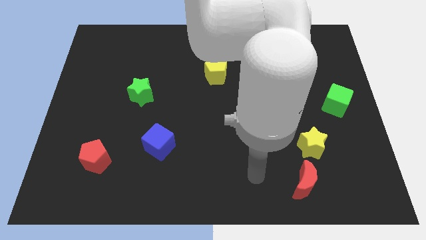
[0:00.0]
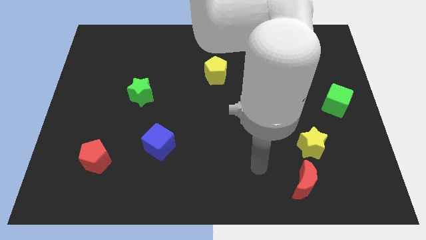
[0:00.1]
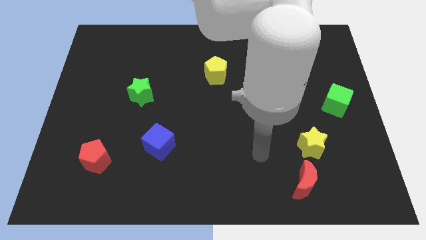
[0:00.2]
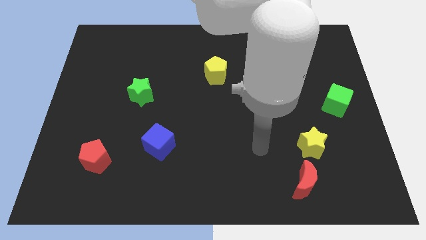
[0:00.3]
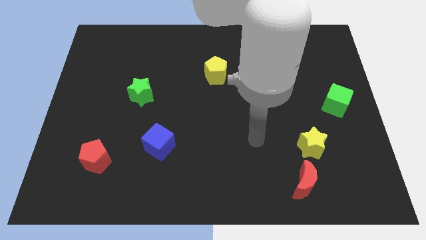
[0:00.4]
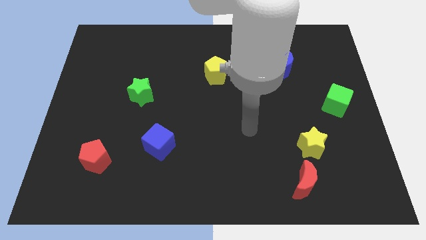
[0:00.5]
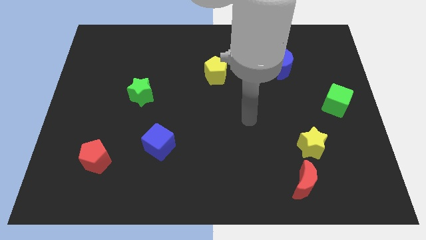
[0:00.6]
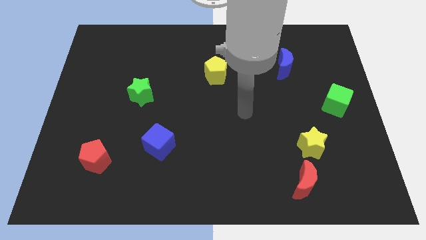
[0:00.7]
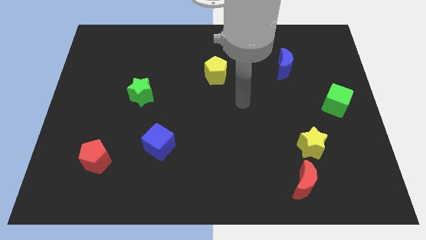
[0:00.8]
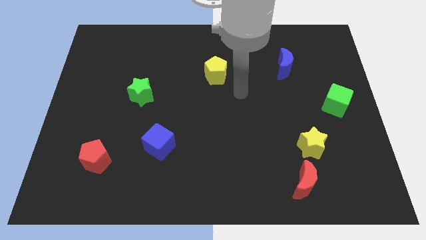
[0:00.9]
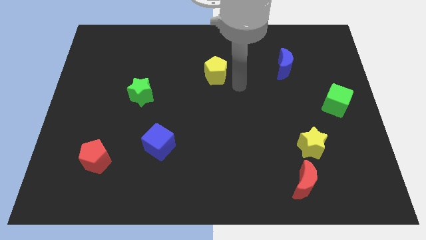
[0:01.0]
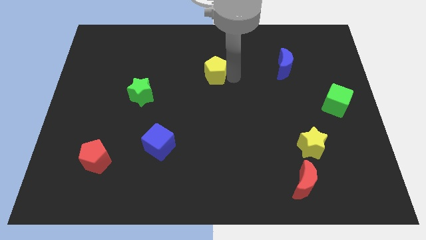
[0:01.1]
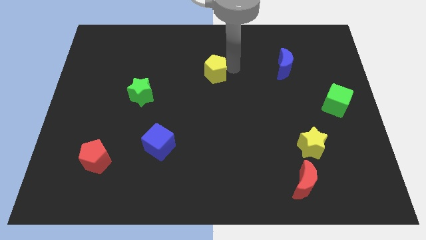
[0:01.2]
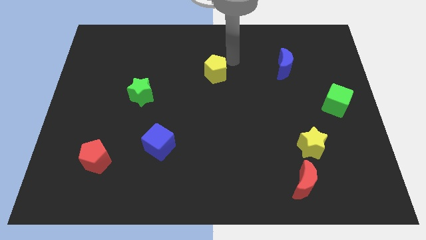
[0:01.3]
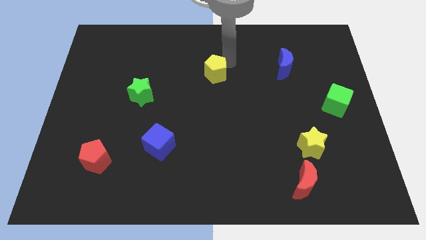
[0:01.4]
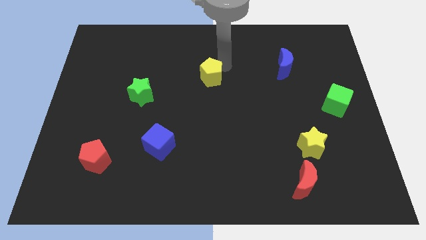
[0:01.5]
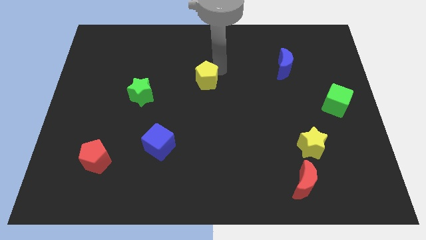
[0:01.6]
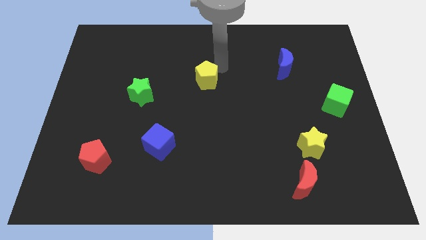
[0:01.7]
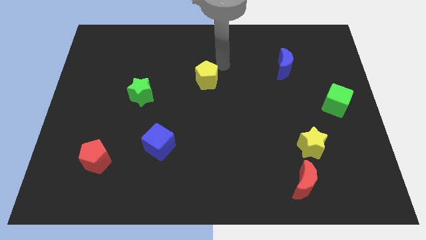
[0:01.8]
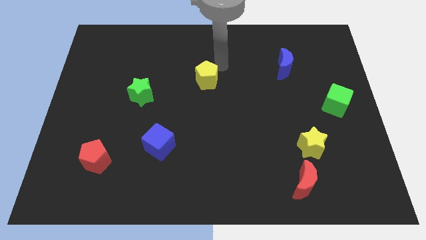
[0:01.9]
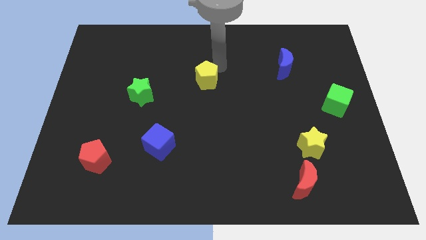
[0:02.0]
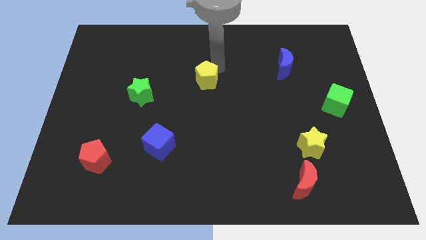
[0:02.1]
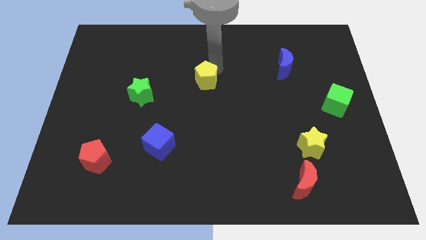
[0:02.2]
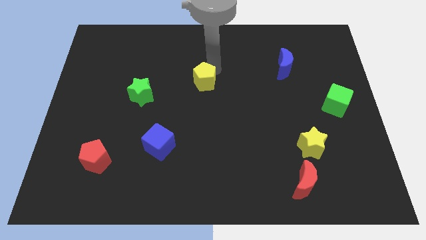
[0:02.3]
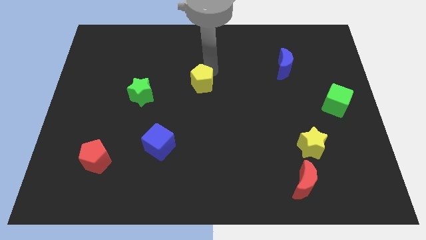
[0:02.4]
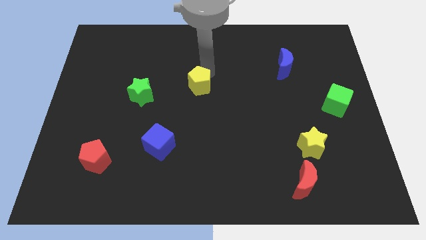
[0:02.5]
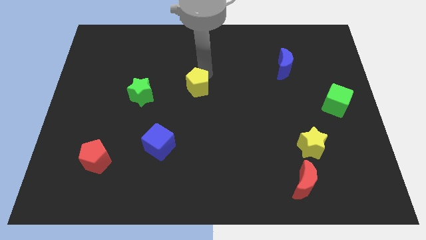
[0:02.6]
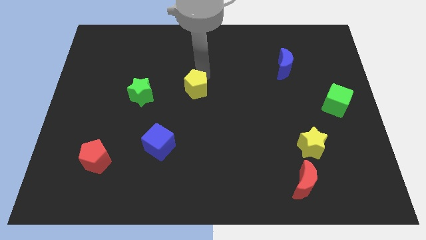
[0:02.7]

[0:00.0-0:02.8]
push the yellow pentagon a little downwards and left

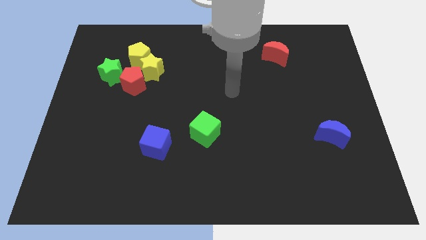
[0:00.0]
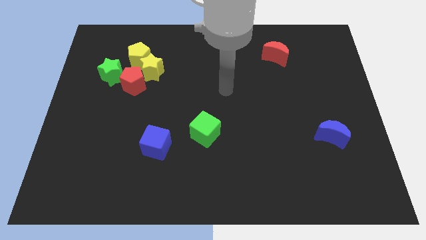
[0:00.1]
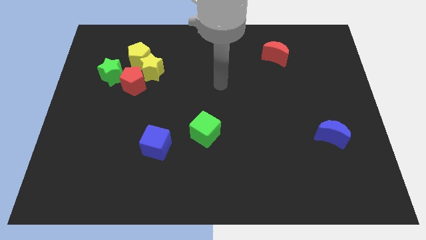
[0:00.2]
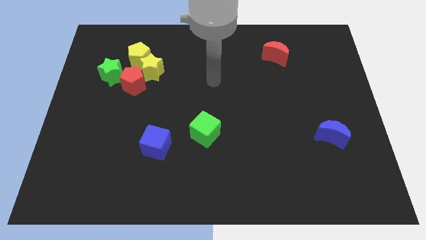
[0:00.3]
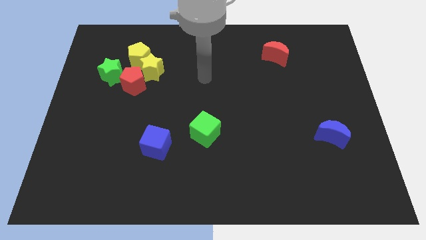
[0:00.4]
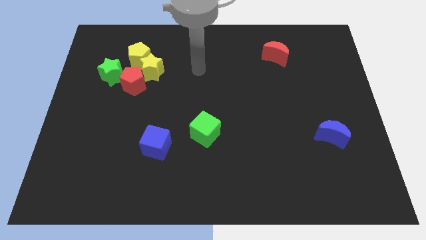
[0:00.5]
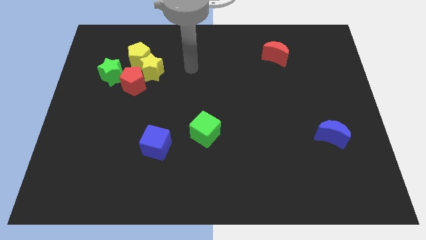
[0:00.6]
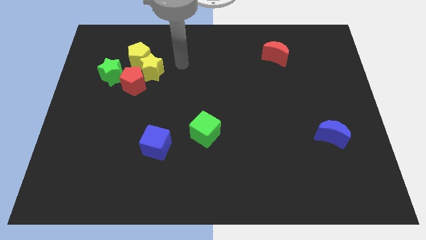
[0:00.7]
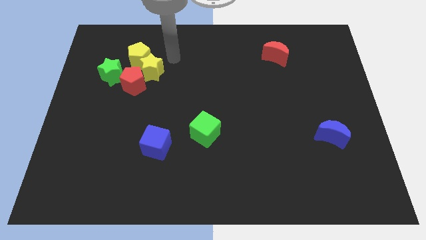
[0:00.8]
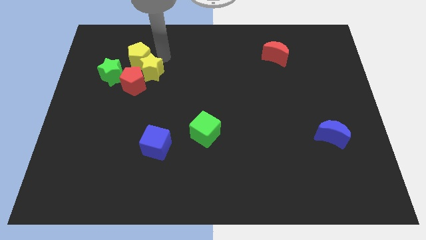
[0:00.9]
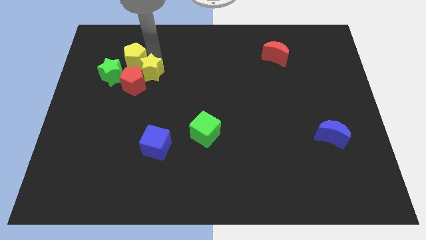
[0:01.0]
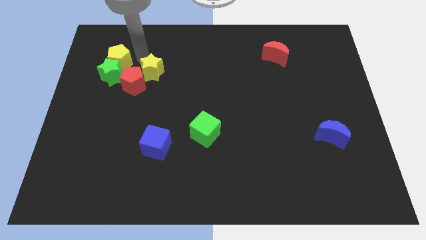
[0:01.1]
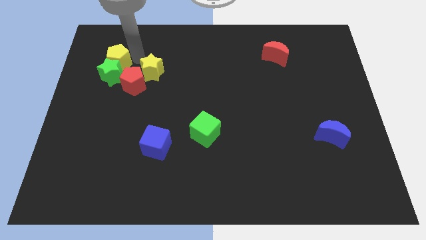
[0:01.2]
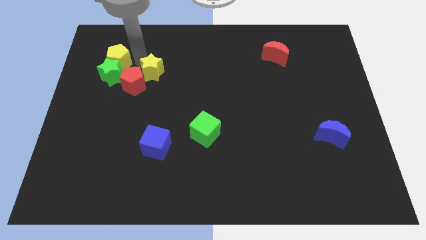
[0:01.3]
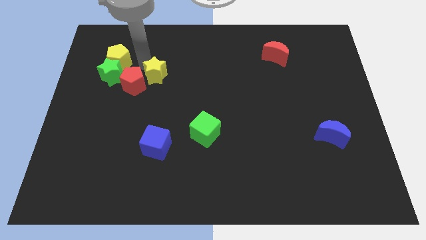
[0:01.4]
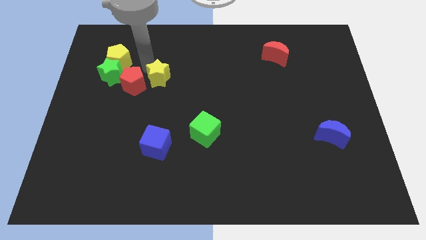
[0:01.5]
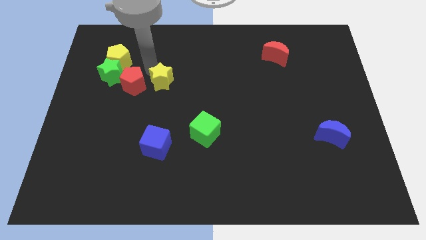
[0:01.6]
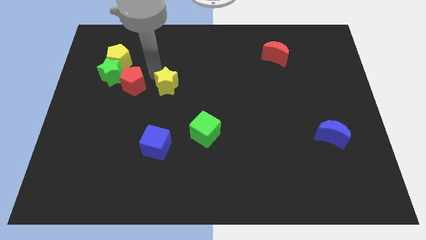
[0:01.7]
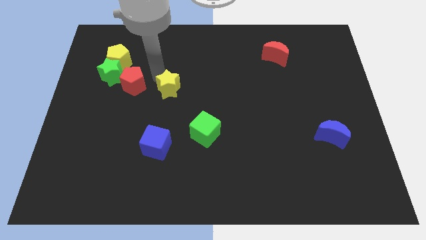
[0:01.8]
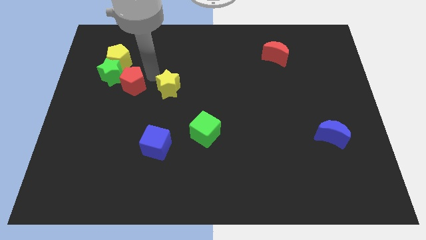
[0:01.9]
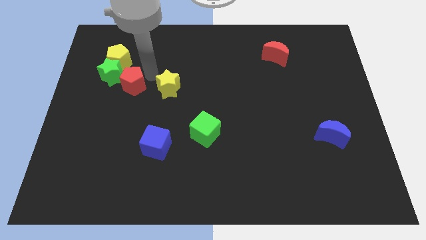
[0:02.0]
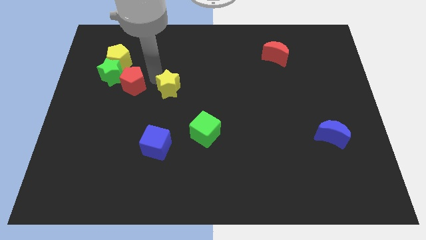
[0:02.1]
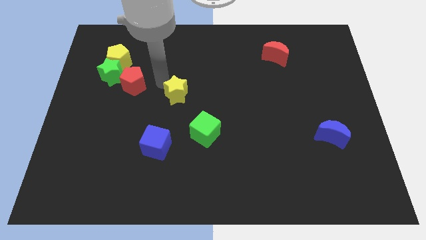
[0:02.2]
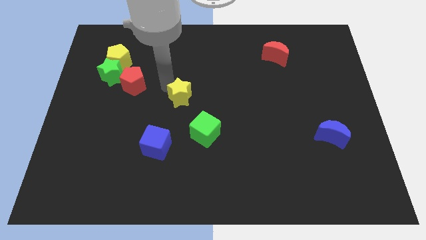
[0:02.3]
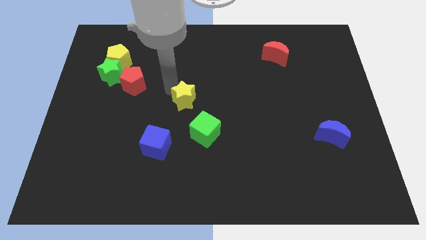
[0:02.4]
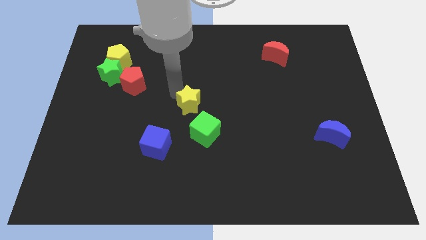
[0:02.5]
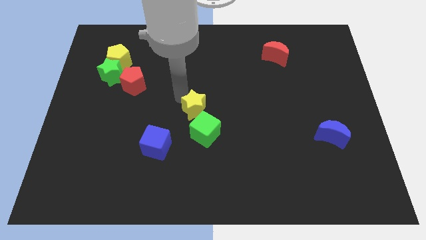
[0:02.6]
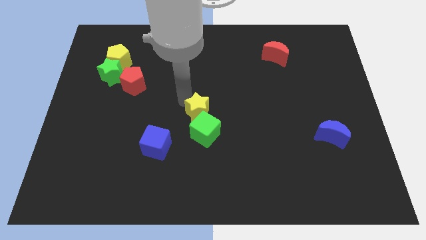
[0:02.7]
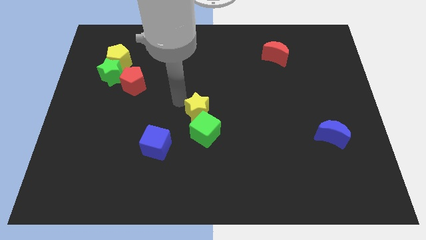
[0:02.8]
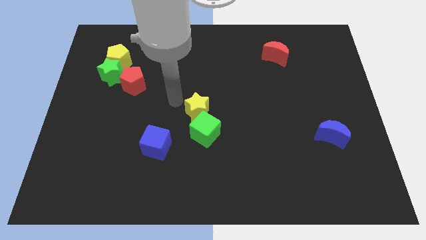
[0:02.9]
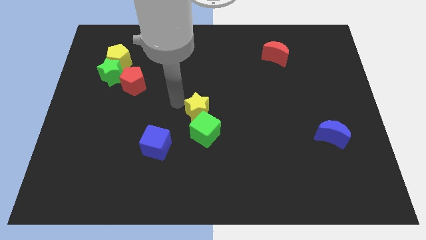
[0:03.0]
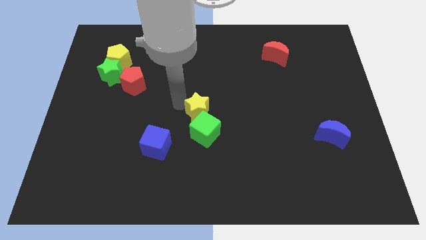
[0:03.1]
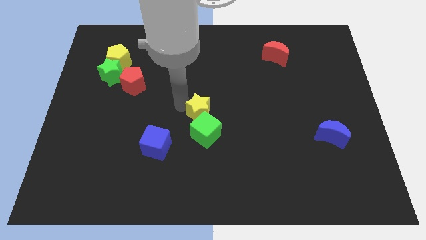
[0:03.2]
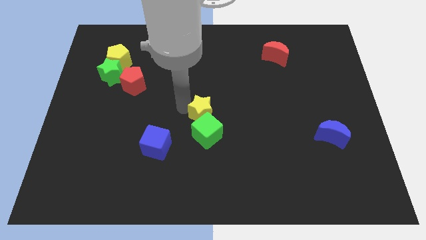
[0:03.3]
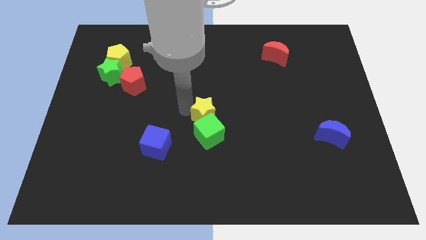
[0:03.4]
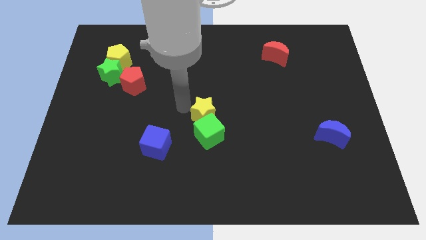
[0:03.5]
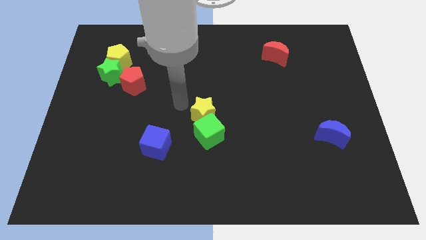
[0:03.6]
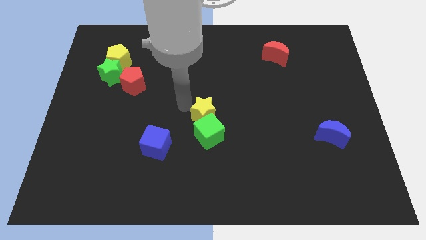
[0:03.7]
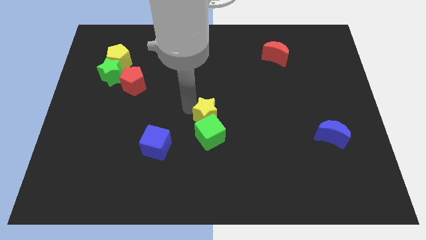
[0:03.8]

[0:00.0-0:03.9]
push the yellow star downwards and then to the right

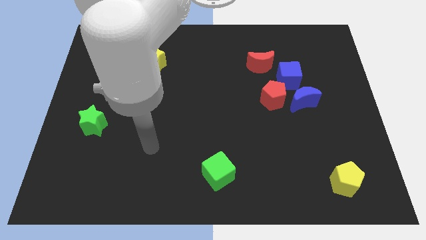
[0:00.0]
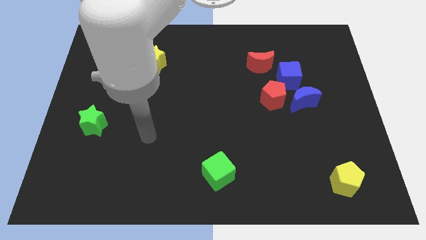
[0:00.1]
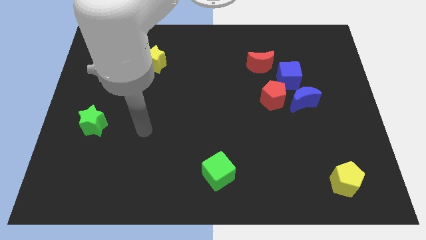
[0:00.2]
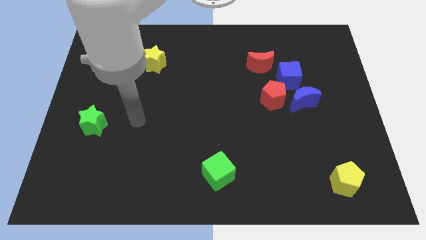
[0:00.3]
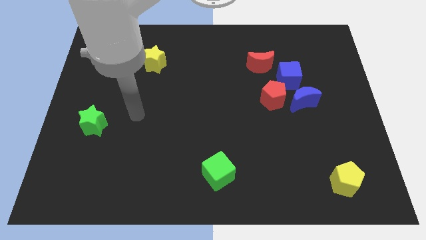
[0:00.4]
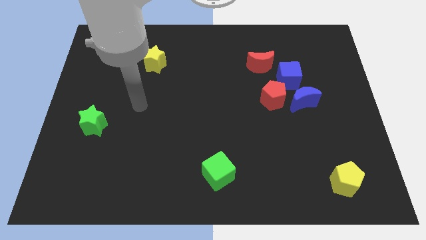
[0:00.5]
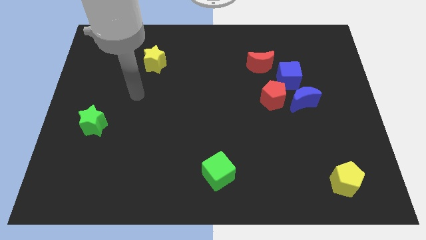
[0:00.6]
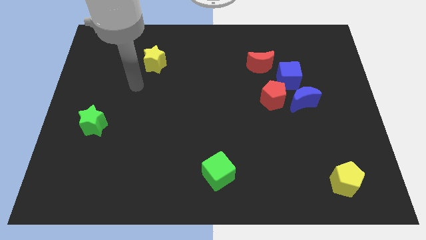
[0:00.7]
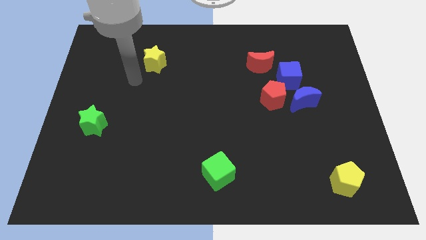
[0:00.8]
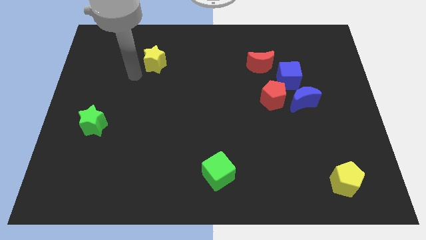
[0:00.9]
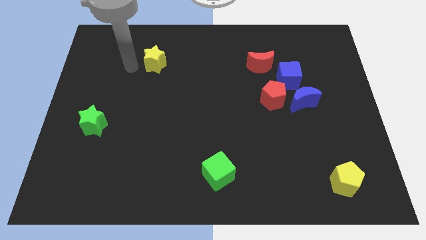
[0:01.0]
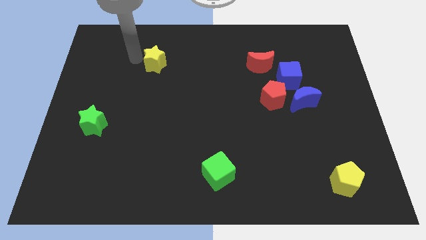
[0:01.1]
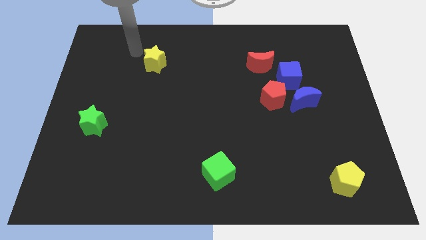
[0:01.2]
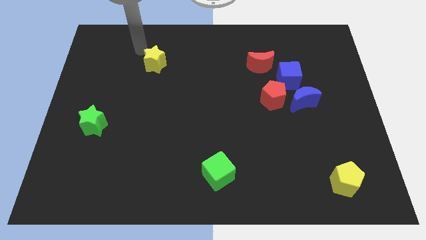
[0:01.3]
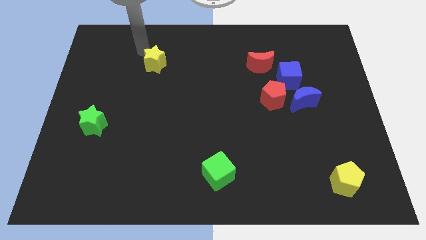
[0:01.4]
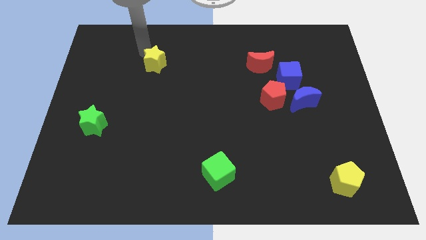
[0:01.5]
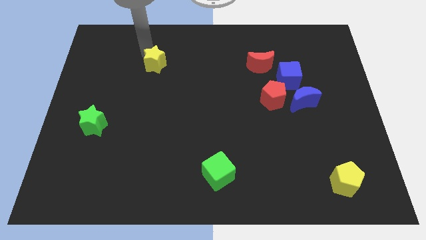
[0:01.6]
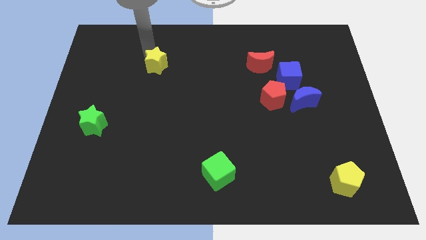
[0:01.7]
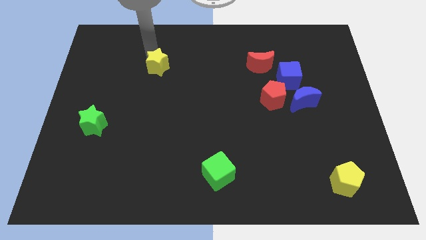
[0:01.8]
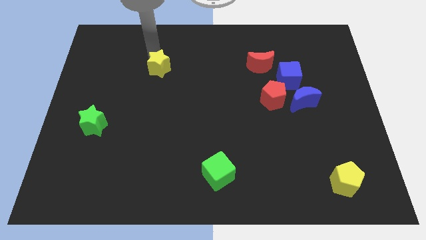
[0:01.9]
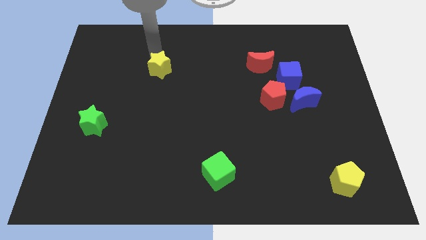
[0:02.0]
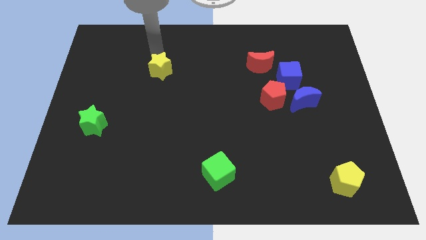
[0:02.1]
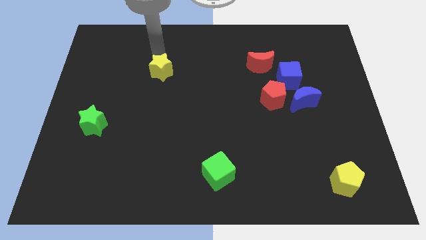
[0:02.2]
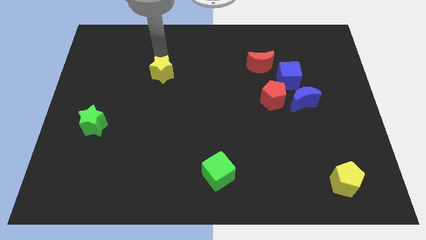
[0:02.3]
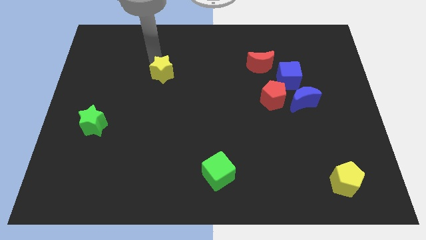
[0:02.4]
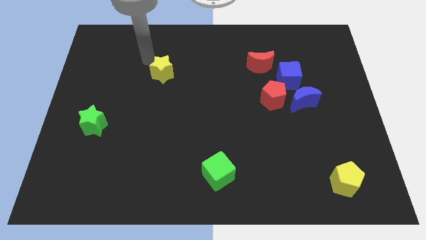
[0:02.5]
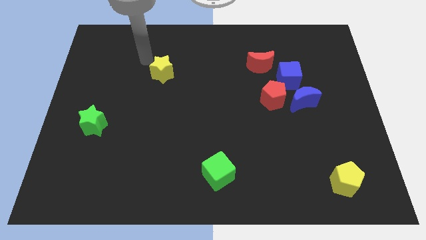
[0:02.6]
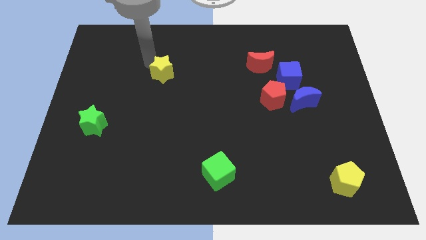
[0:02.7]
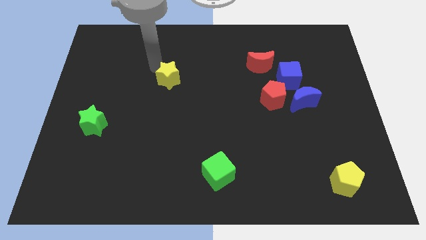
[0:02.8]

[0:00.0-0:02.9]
slide the yellow star downwards and right a little bit
